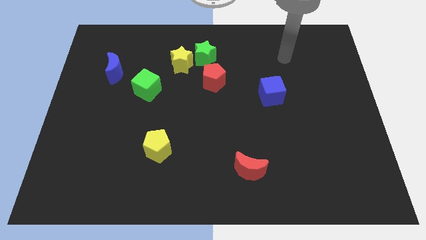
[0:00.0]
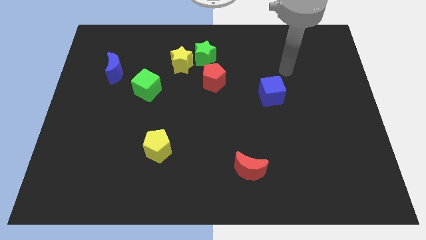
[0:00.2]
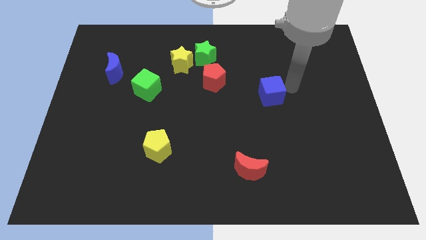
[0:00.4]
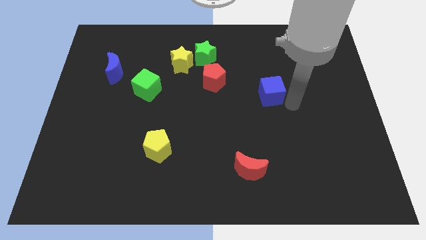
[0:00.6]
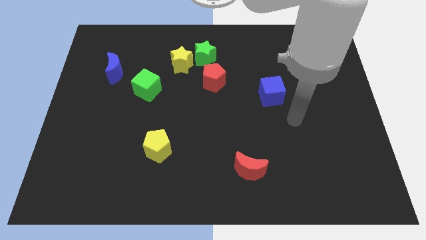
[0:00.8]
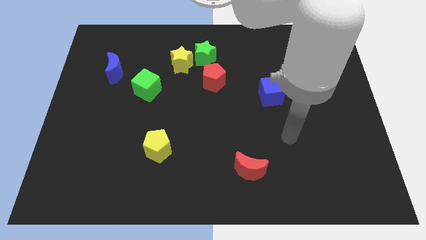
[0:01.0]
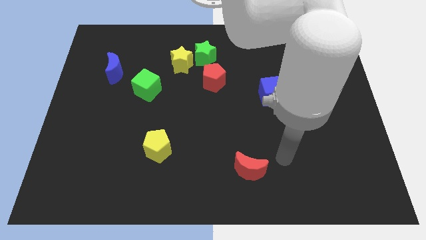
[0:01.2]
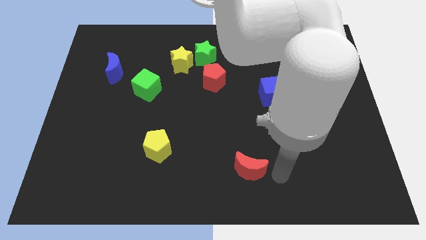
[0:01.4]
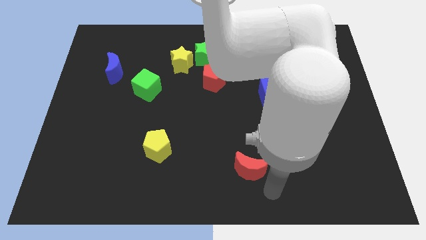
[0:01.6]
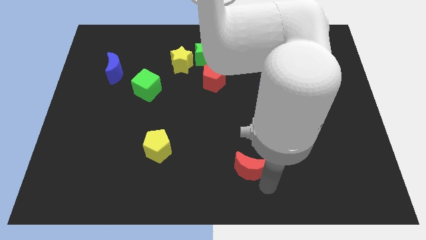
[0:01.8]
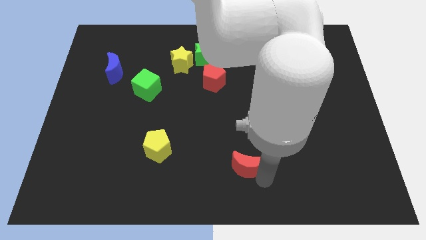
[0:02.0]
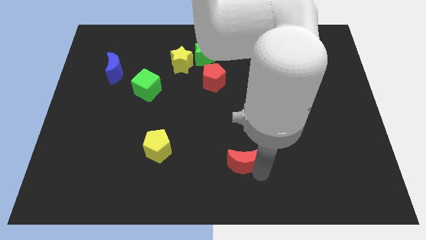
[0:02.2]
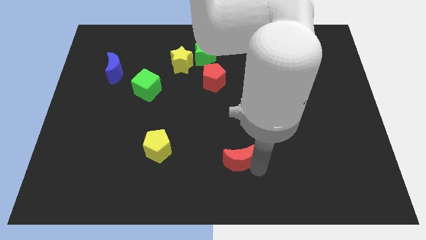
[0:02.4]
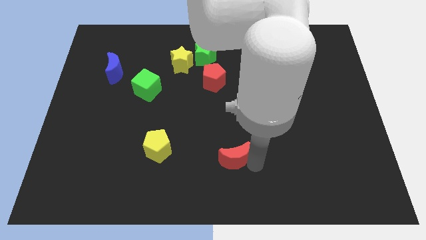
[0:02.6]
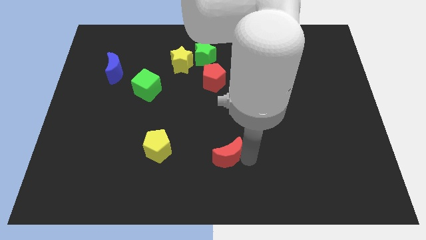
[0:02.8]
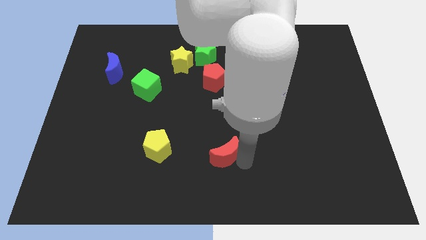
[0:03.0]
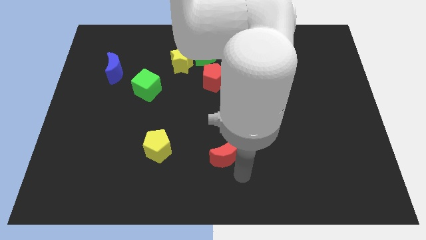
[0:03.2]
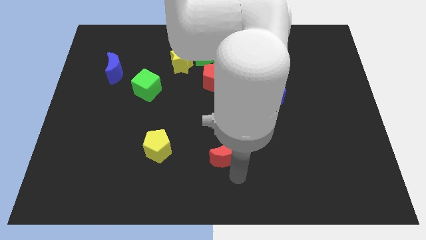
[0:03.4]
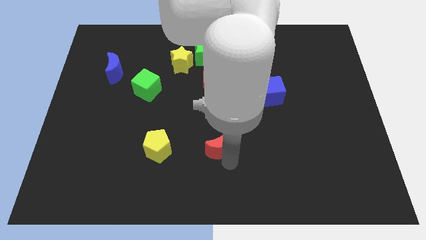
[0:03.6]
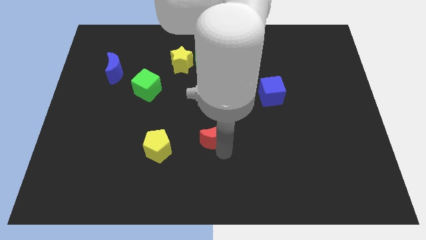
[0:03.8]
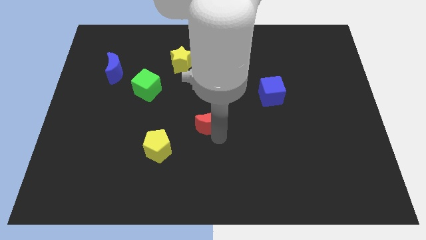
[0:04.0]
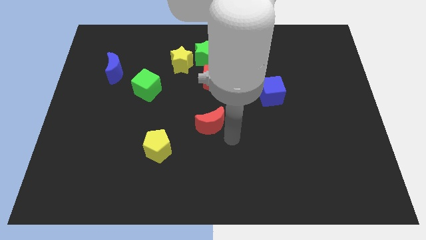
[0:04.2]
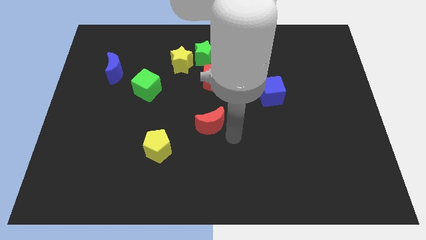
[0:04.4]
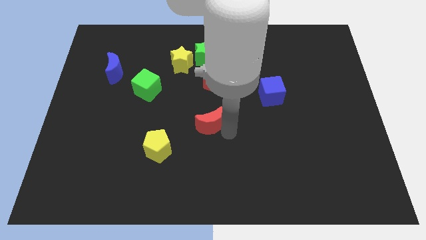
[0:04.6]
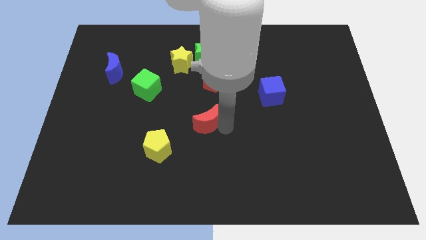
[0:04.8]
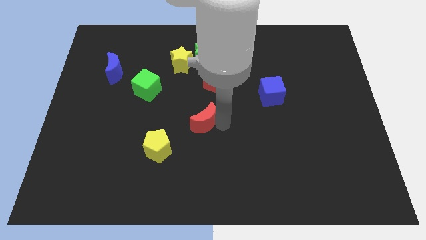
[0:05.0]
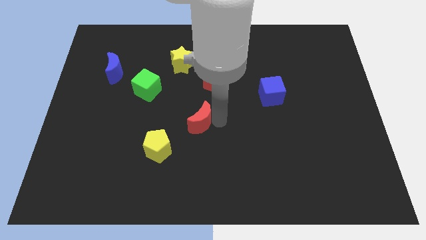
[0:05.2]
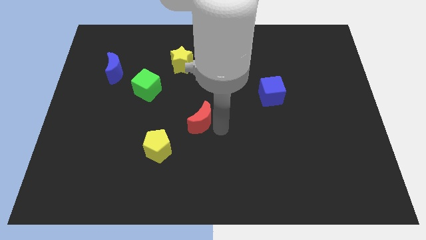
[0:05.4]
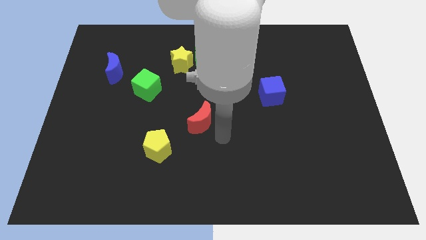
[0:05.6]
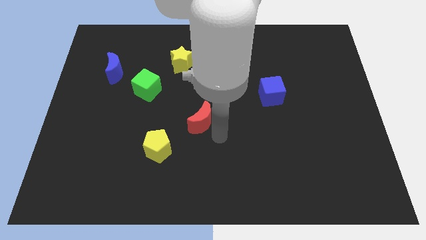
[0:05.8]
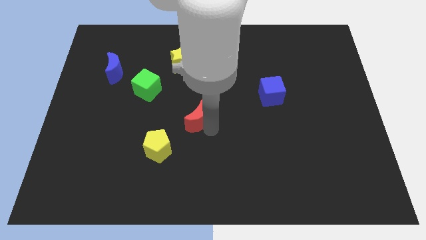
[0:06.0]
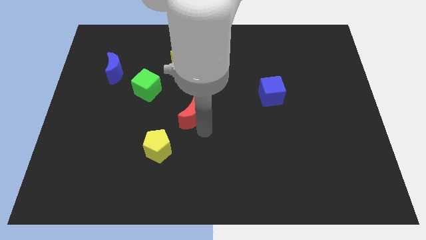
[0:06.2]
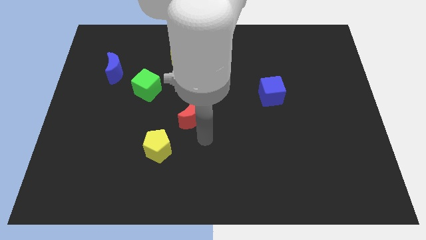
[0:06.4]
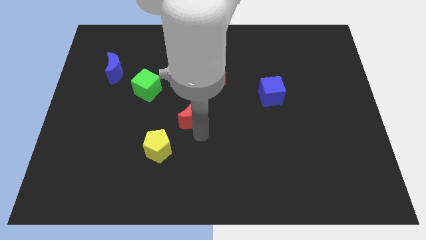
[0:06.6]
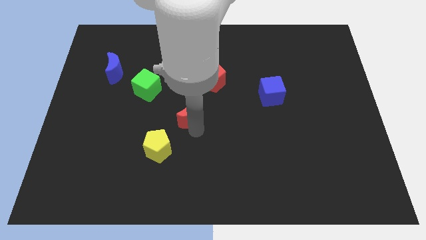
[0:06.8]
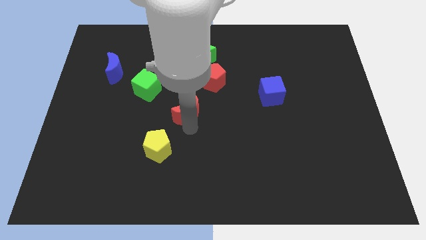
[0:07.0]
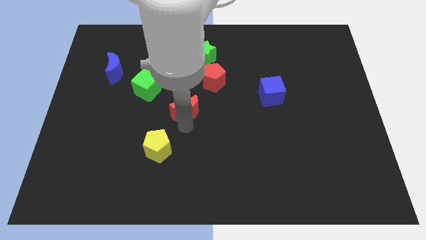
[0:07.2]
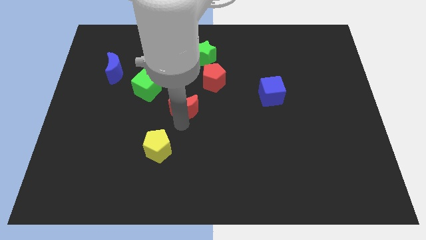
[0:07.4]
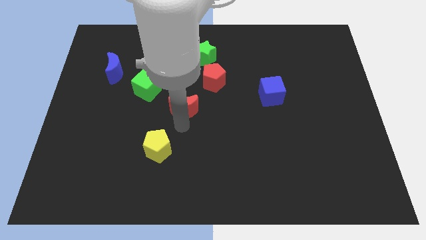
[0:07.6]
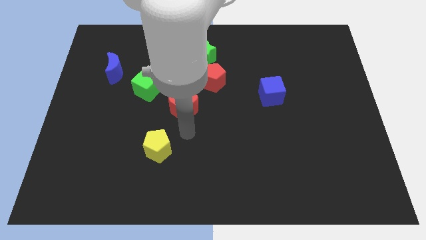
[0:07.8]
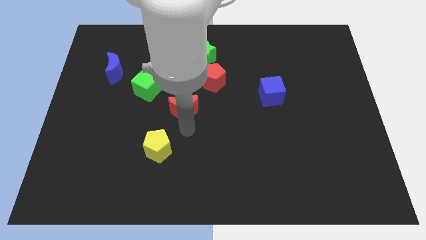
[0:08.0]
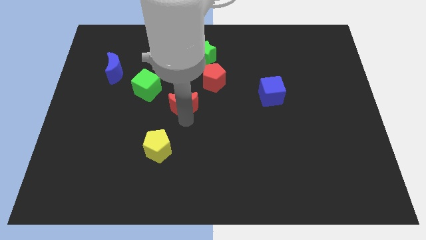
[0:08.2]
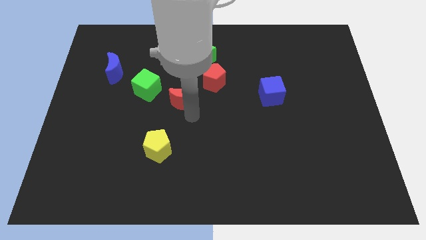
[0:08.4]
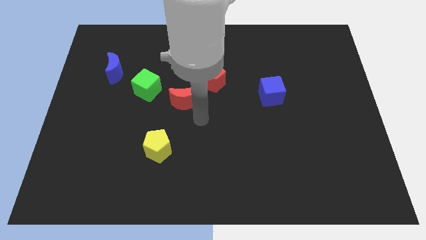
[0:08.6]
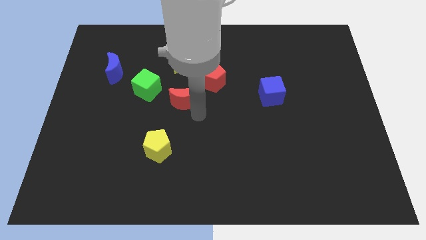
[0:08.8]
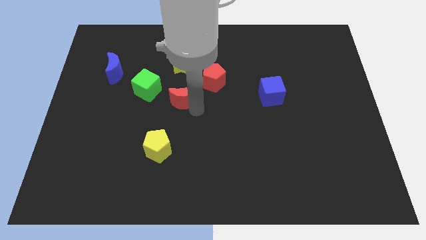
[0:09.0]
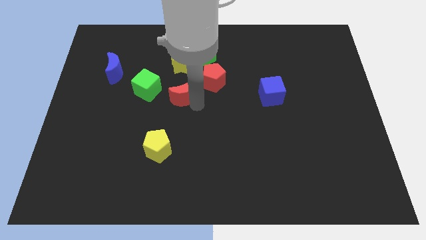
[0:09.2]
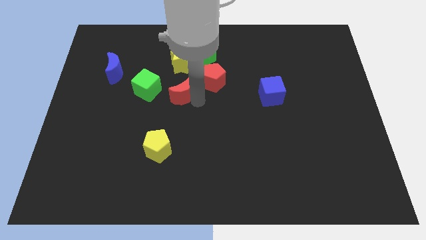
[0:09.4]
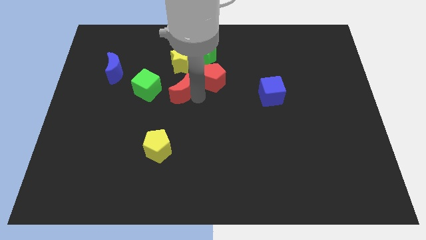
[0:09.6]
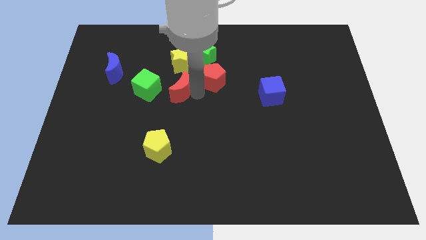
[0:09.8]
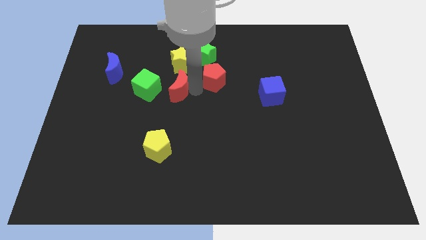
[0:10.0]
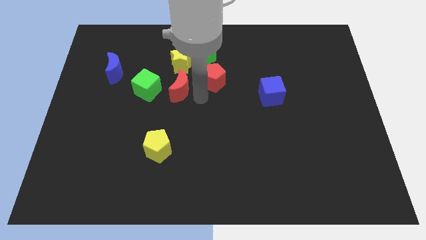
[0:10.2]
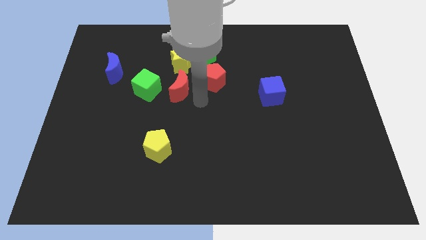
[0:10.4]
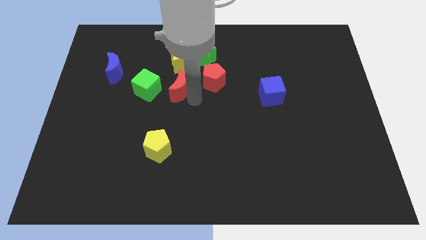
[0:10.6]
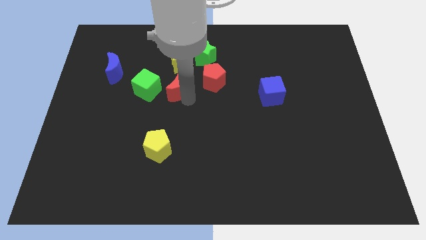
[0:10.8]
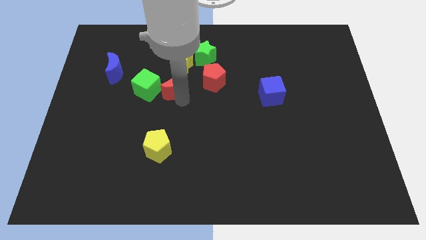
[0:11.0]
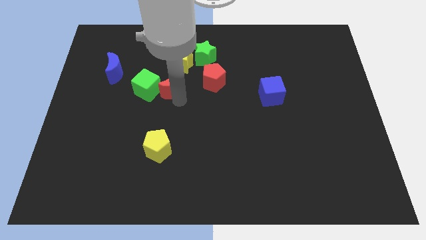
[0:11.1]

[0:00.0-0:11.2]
slide the red moon to the bottom left side of the yellow star
